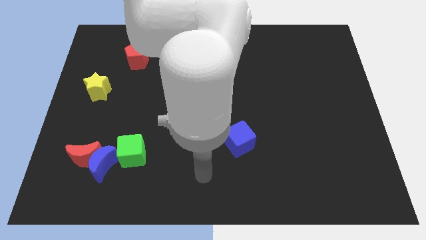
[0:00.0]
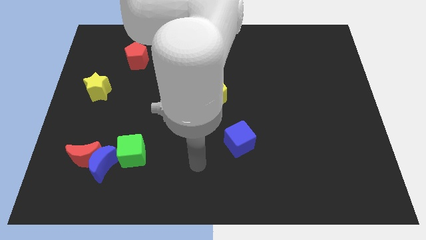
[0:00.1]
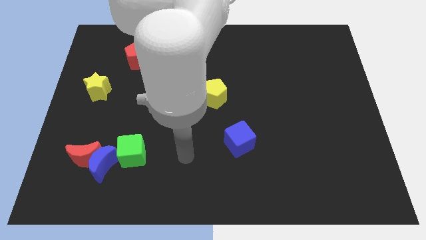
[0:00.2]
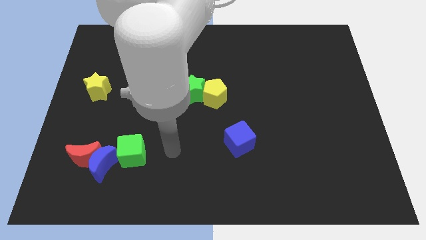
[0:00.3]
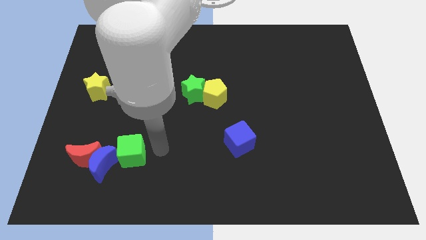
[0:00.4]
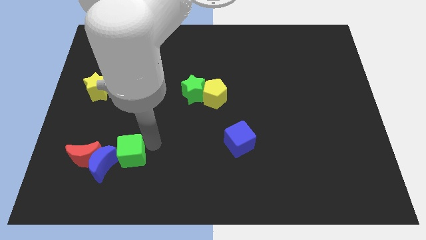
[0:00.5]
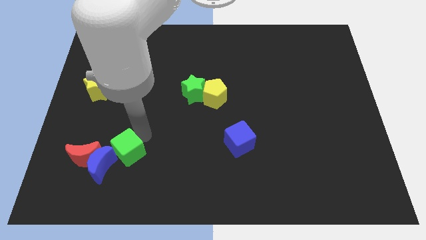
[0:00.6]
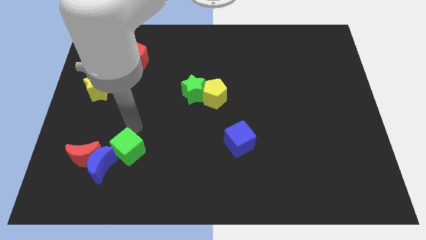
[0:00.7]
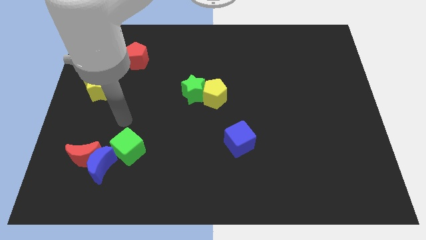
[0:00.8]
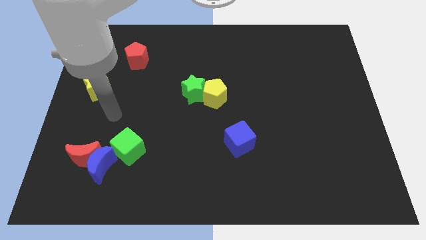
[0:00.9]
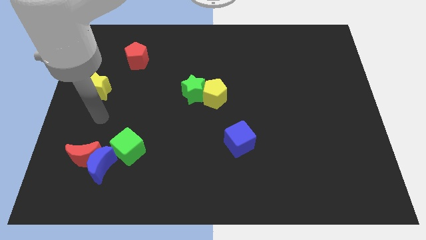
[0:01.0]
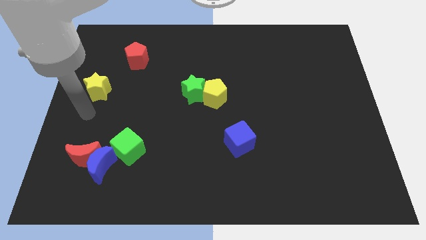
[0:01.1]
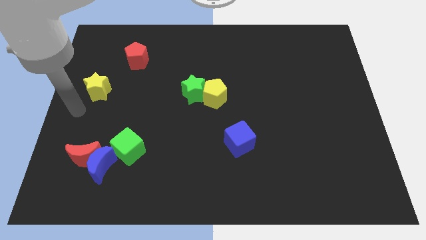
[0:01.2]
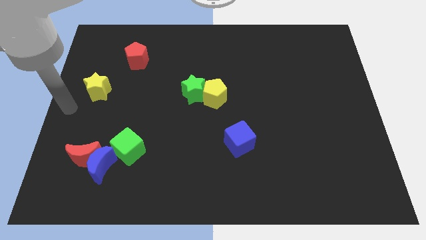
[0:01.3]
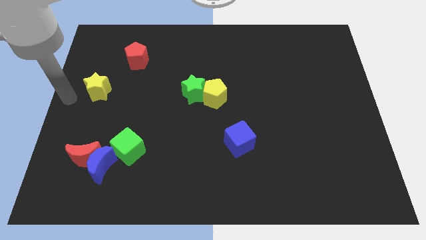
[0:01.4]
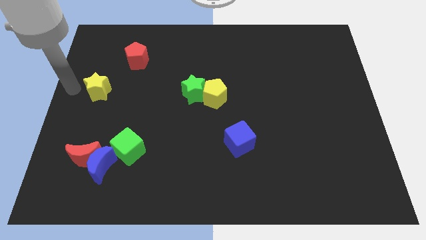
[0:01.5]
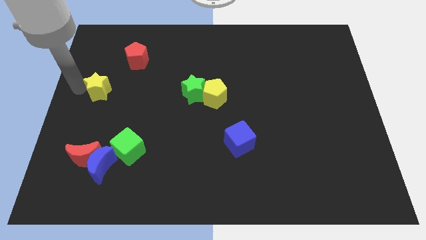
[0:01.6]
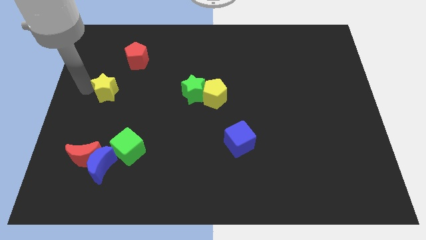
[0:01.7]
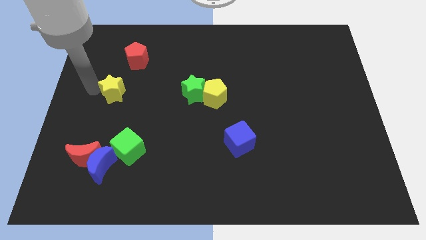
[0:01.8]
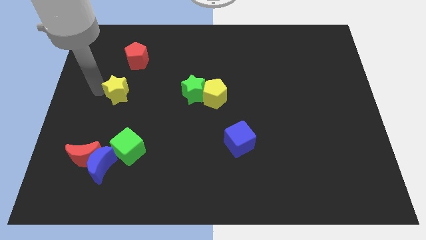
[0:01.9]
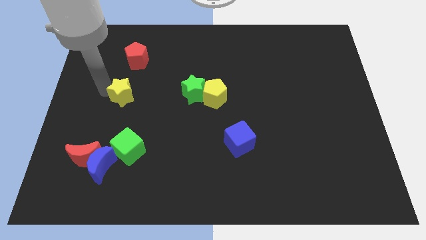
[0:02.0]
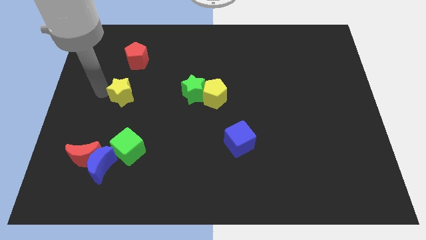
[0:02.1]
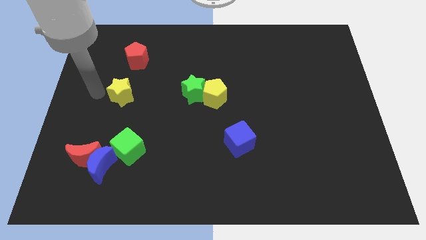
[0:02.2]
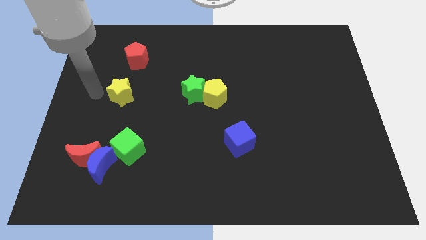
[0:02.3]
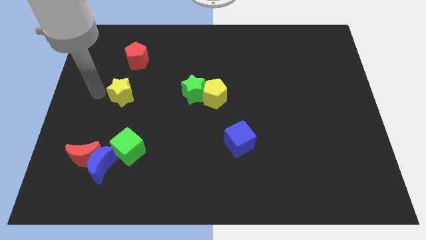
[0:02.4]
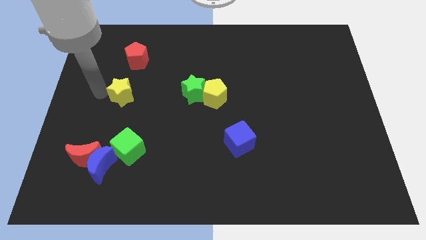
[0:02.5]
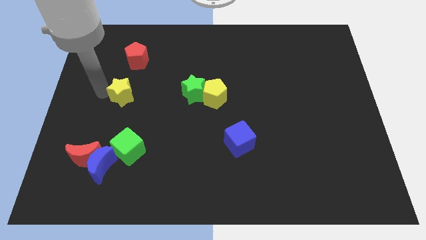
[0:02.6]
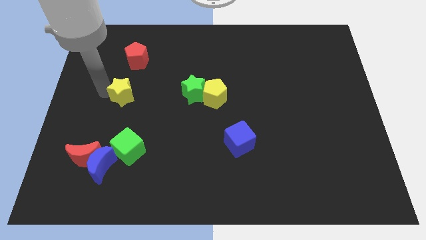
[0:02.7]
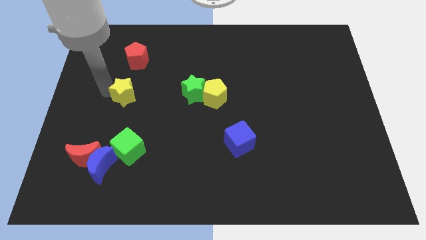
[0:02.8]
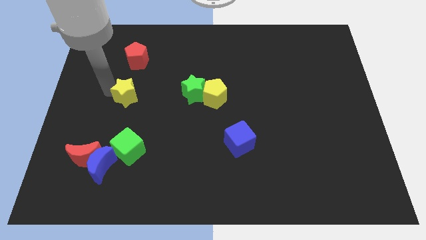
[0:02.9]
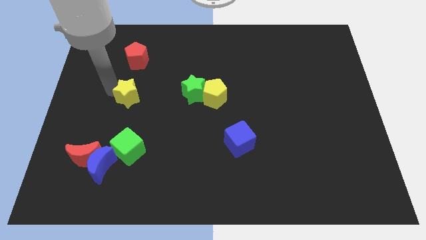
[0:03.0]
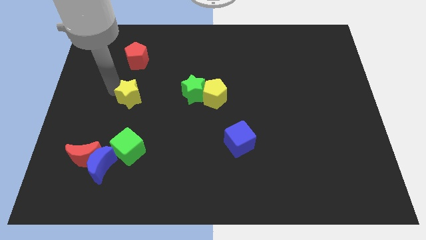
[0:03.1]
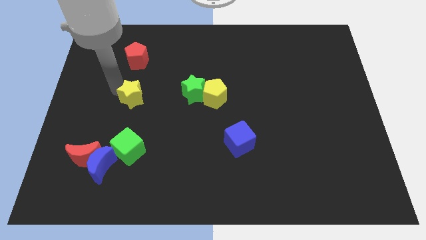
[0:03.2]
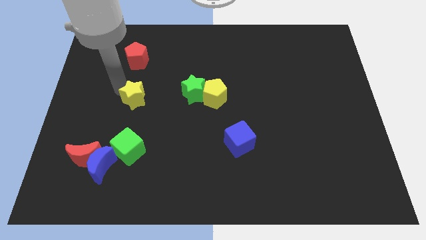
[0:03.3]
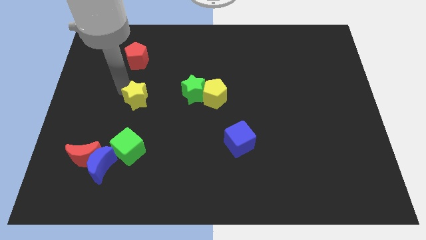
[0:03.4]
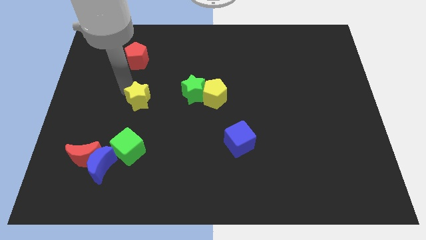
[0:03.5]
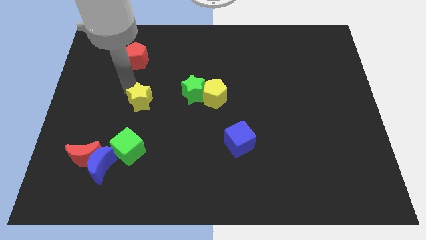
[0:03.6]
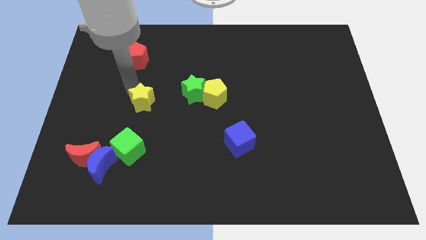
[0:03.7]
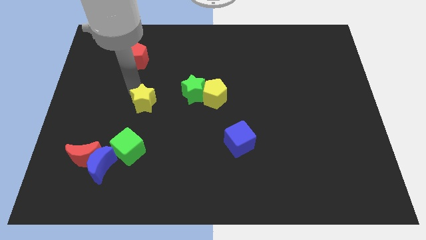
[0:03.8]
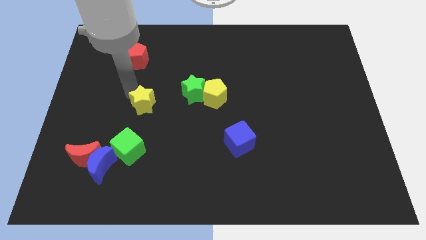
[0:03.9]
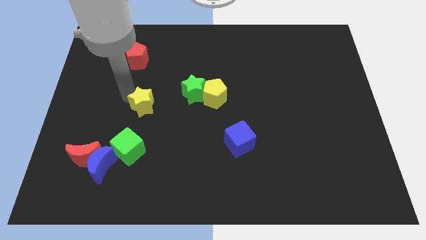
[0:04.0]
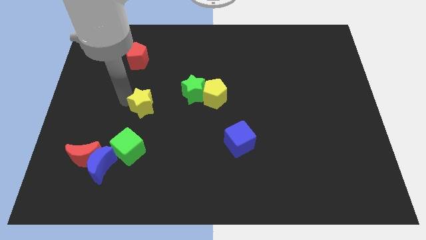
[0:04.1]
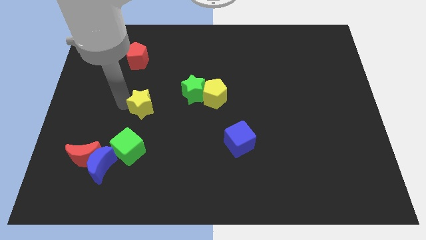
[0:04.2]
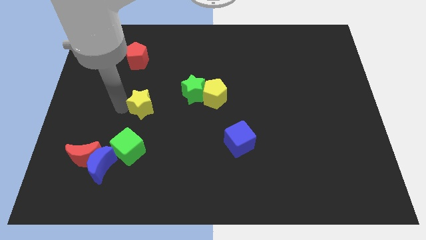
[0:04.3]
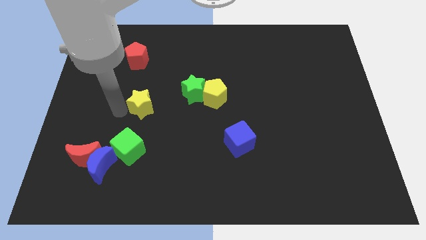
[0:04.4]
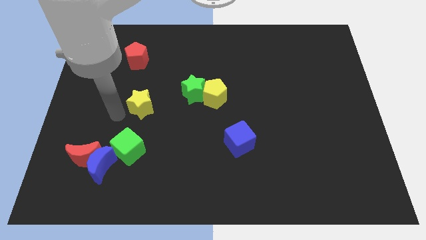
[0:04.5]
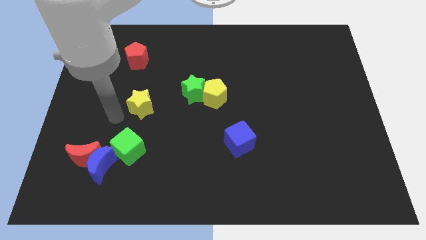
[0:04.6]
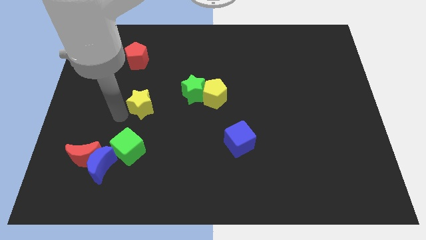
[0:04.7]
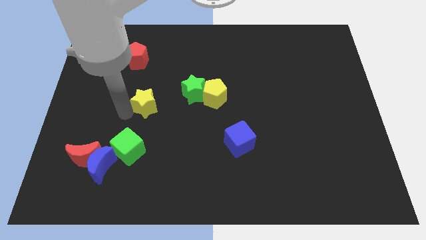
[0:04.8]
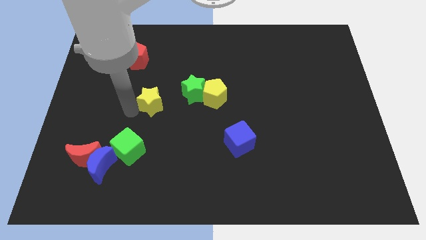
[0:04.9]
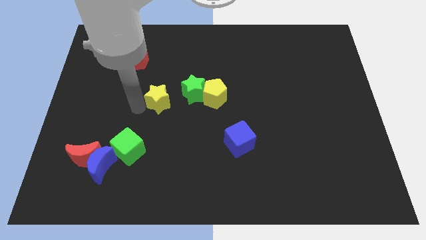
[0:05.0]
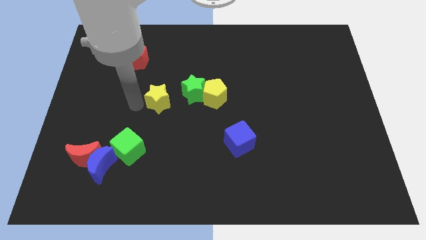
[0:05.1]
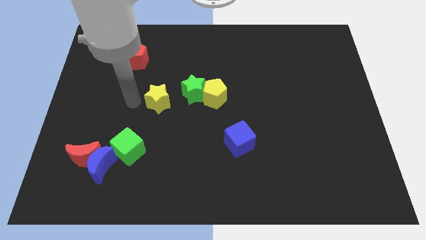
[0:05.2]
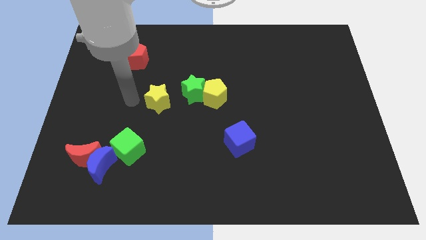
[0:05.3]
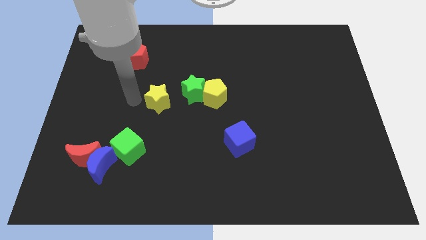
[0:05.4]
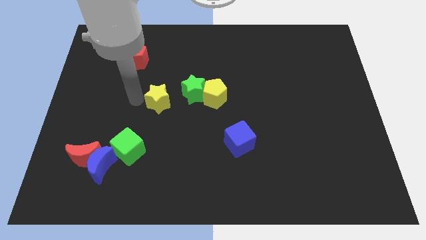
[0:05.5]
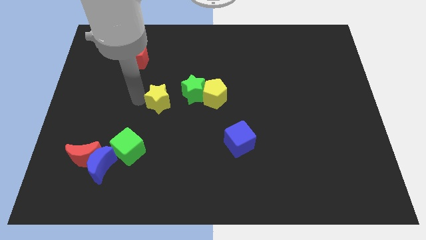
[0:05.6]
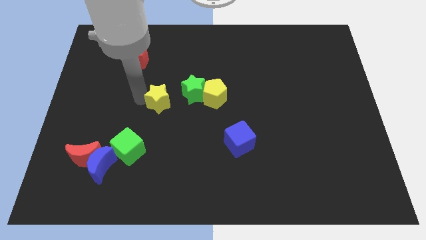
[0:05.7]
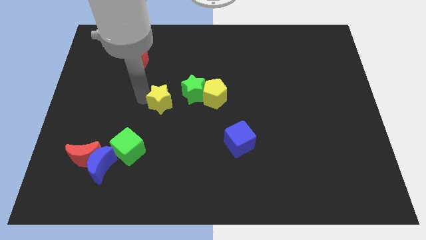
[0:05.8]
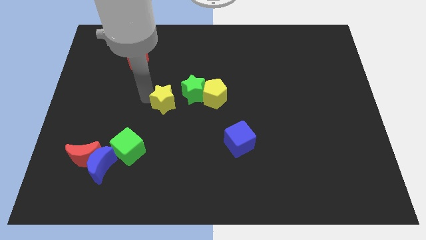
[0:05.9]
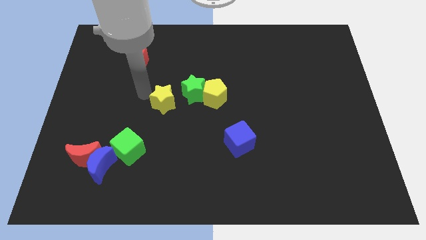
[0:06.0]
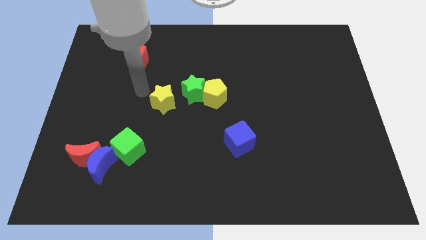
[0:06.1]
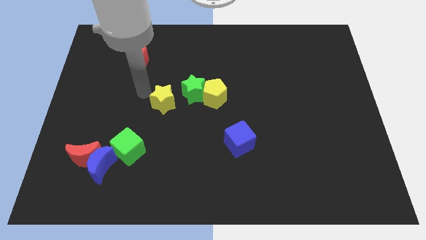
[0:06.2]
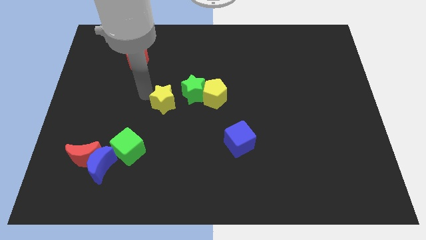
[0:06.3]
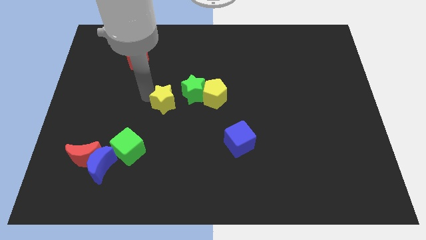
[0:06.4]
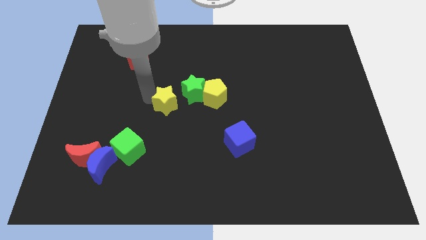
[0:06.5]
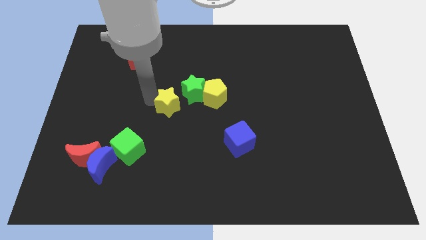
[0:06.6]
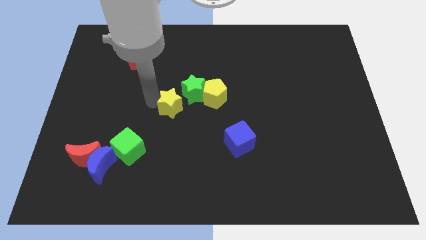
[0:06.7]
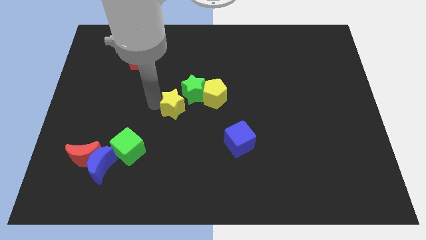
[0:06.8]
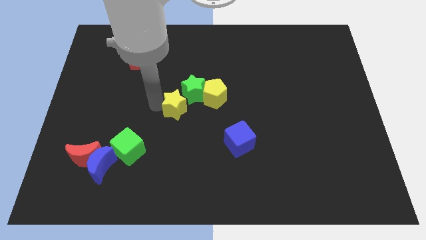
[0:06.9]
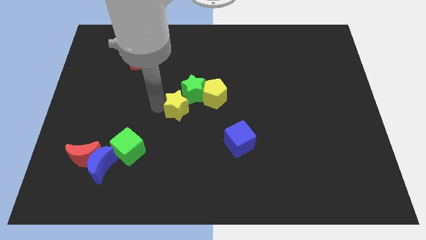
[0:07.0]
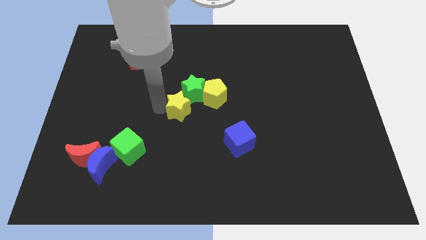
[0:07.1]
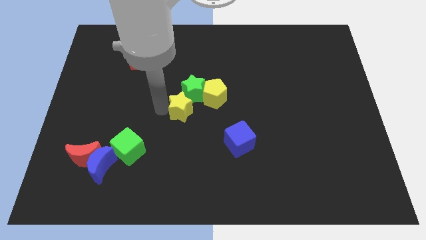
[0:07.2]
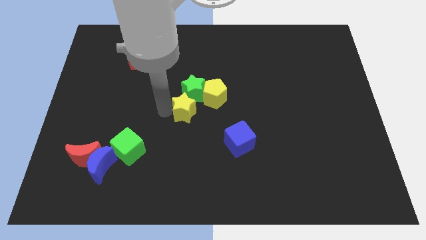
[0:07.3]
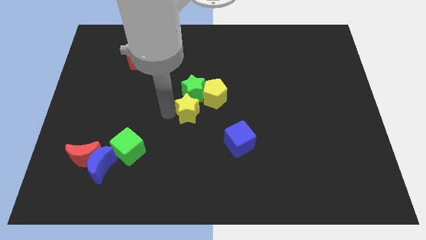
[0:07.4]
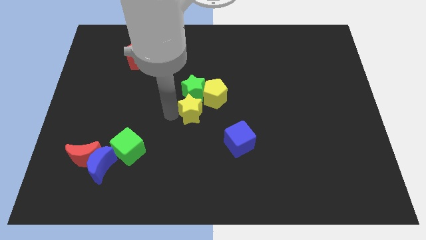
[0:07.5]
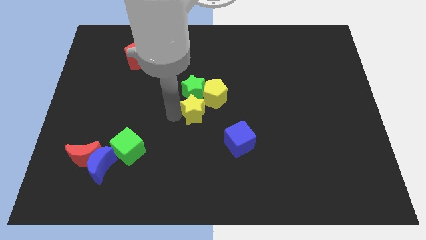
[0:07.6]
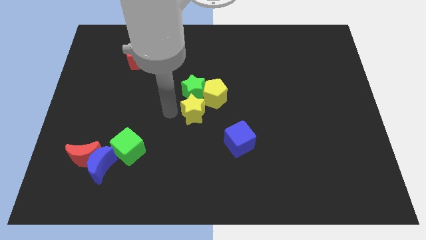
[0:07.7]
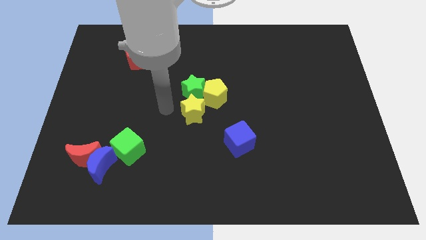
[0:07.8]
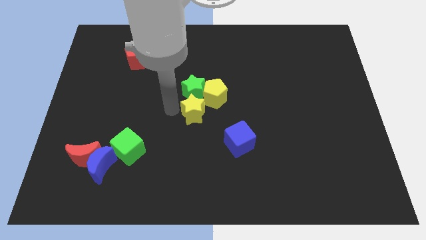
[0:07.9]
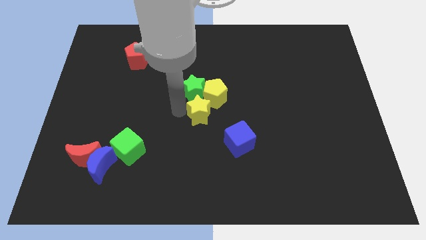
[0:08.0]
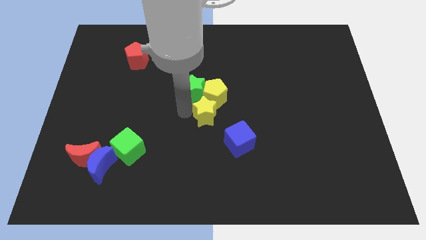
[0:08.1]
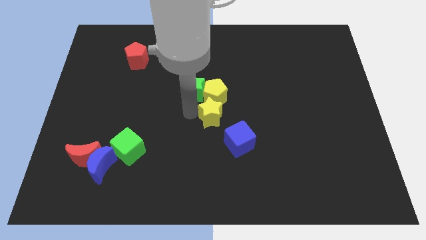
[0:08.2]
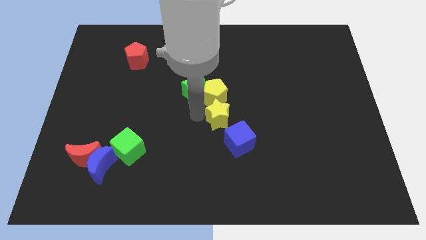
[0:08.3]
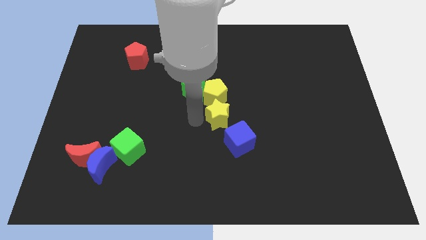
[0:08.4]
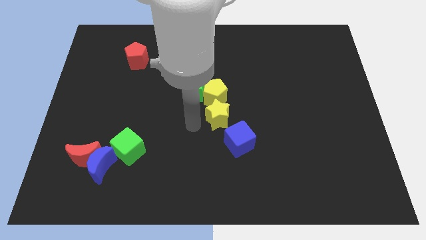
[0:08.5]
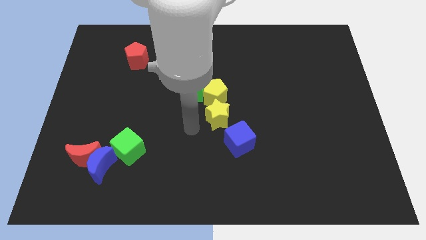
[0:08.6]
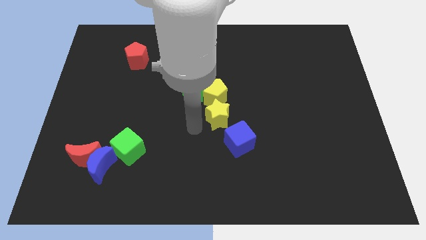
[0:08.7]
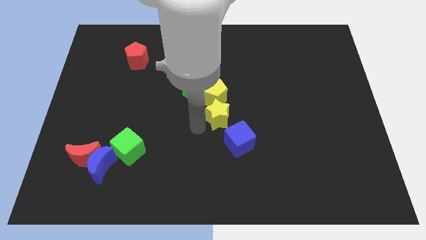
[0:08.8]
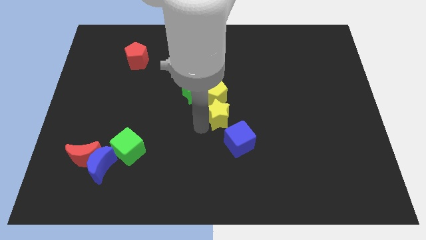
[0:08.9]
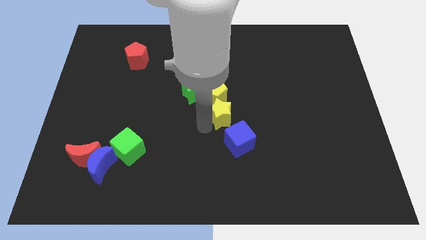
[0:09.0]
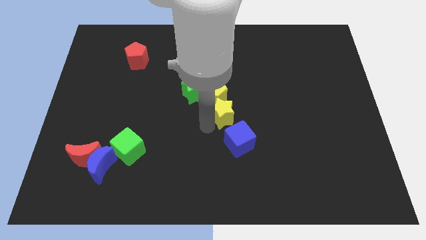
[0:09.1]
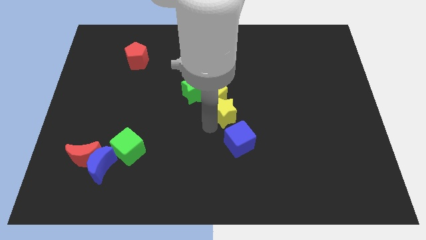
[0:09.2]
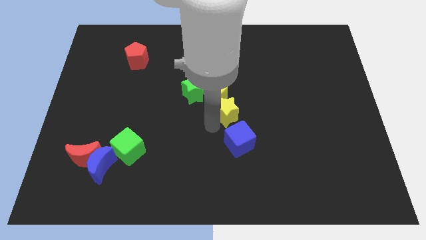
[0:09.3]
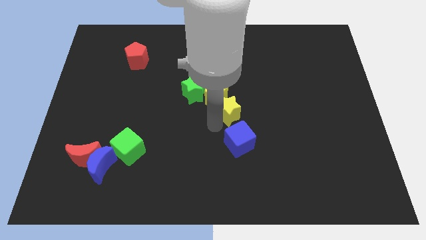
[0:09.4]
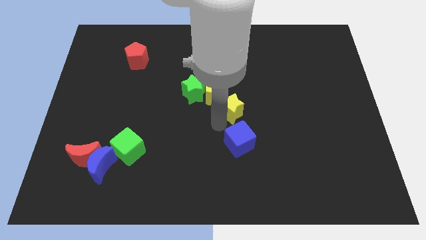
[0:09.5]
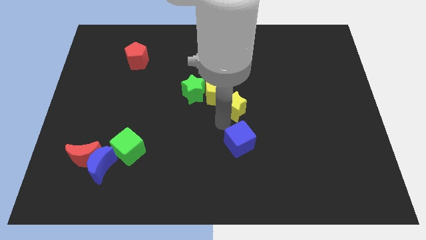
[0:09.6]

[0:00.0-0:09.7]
push the yellow star just right of the yellow pentagon
